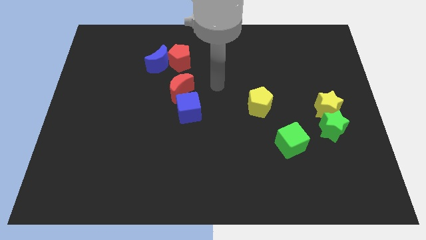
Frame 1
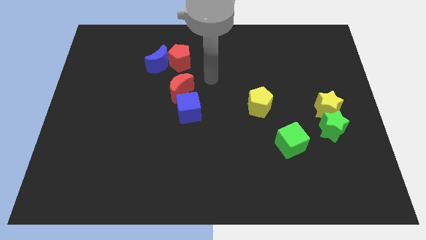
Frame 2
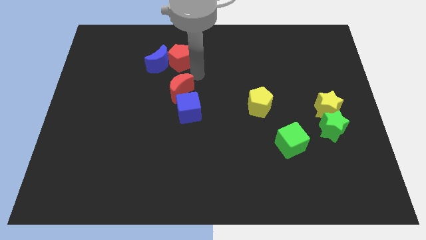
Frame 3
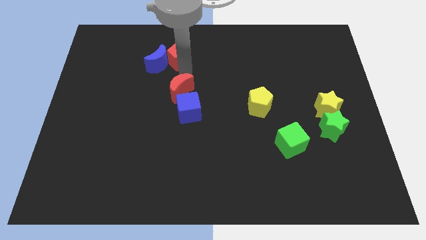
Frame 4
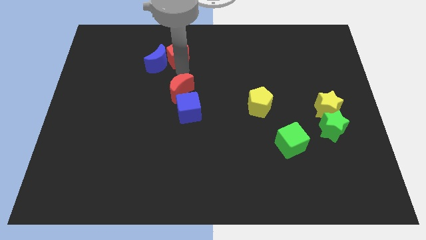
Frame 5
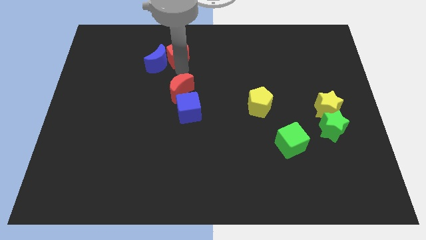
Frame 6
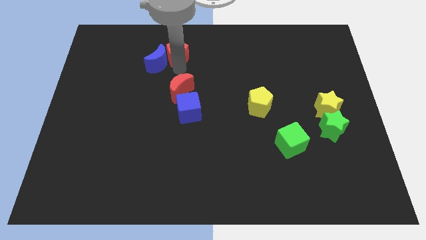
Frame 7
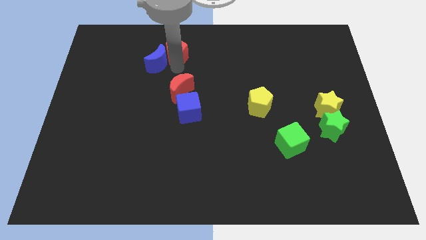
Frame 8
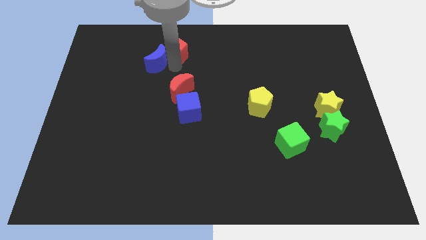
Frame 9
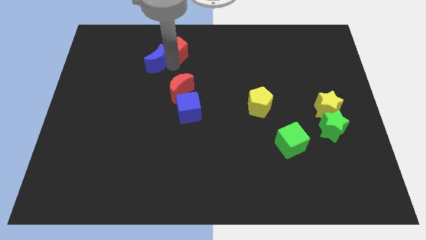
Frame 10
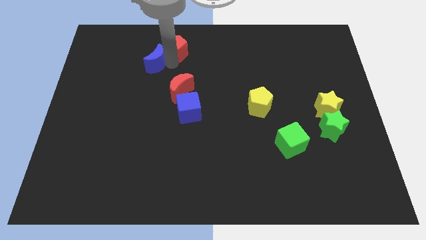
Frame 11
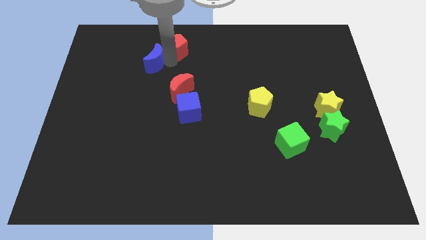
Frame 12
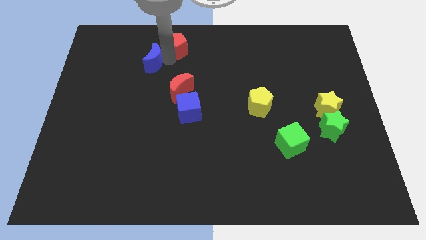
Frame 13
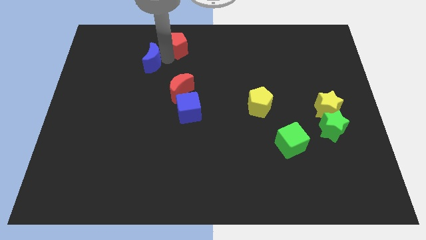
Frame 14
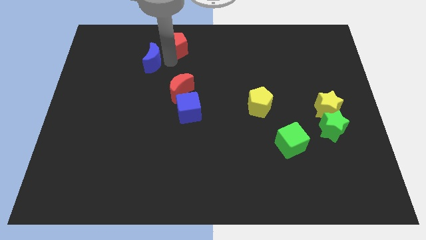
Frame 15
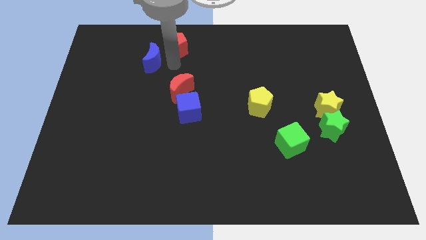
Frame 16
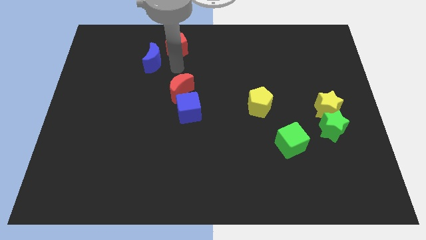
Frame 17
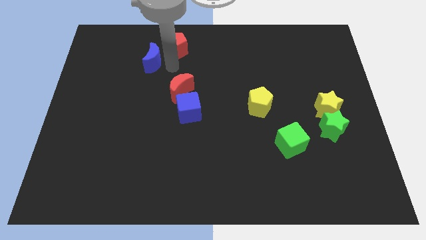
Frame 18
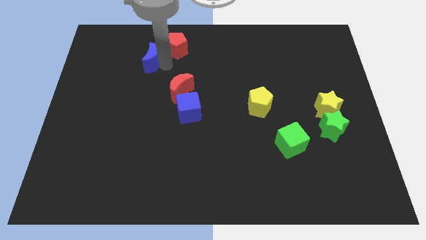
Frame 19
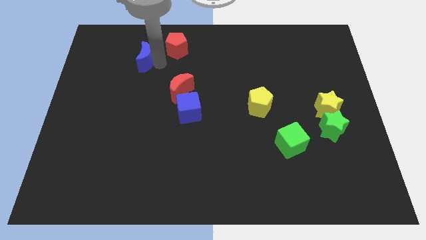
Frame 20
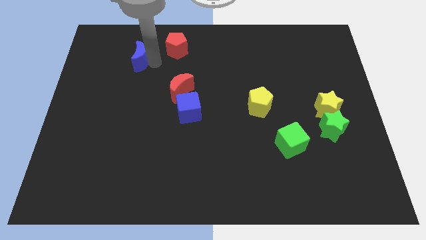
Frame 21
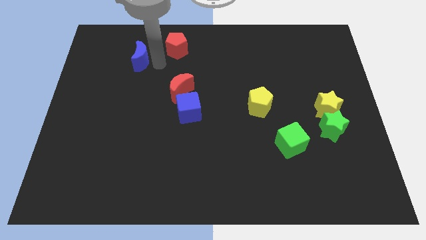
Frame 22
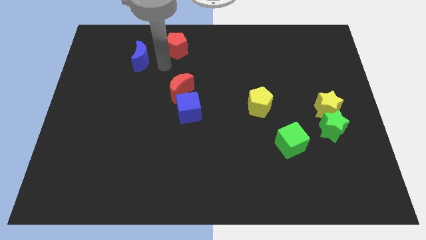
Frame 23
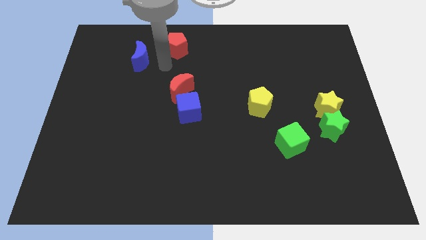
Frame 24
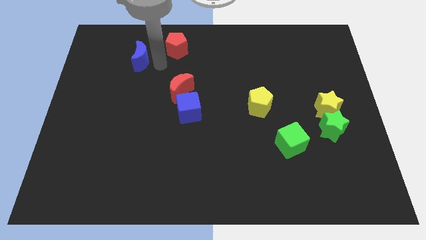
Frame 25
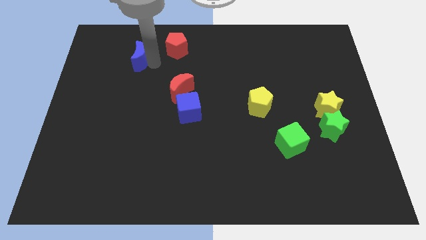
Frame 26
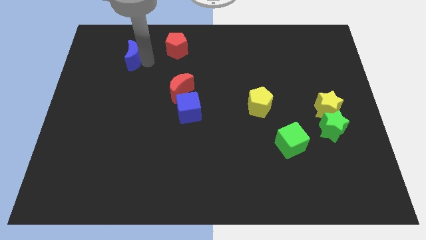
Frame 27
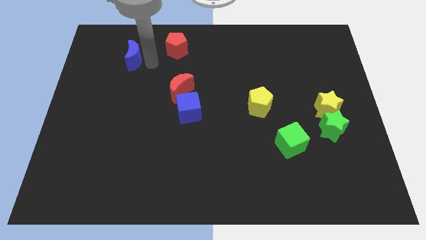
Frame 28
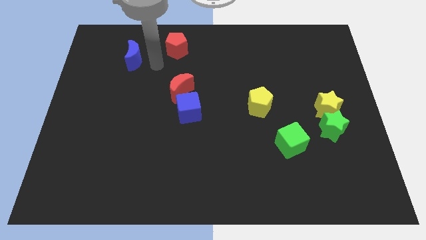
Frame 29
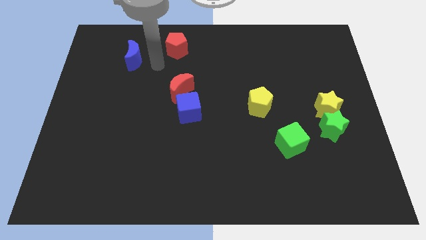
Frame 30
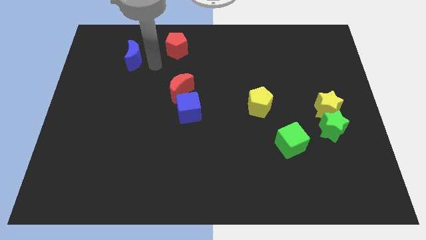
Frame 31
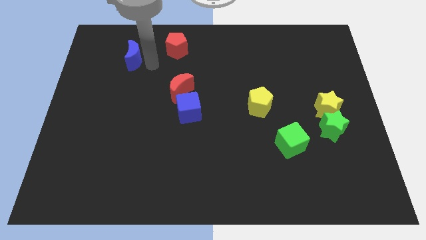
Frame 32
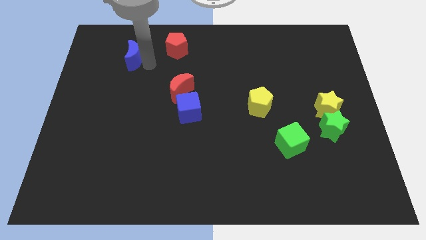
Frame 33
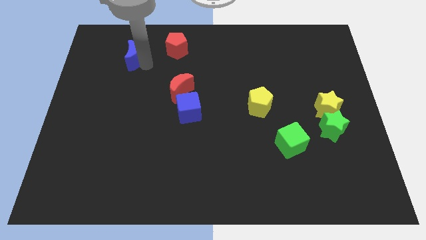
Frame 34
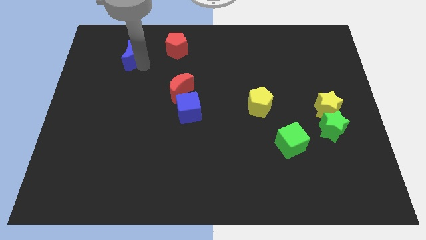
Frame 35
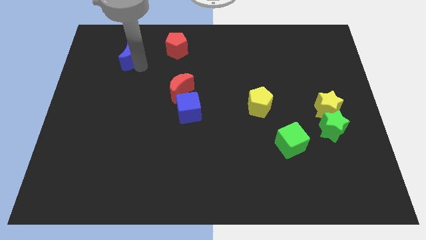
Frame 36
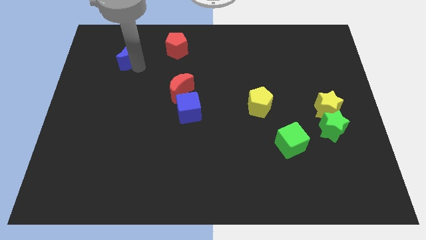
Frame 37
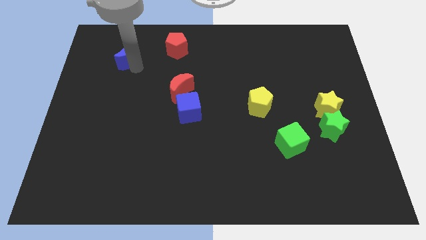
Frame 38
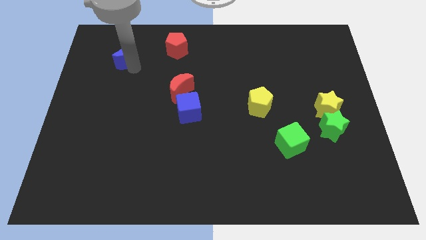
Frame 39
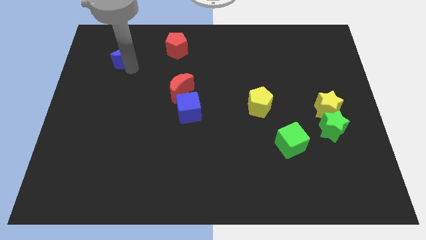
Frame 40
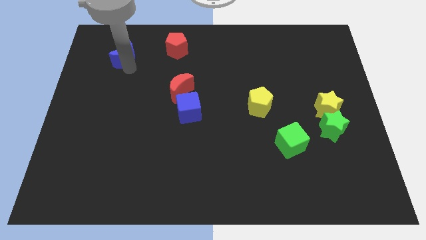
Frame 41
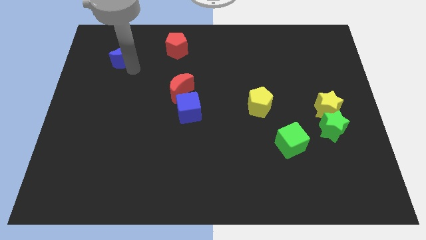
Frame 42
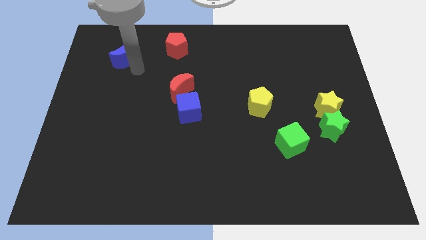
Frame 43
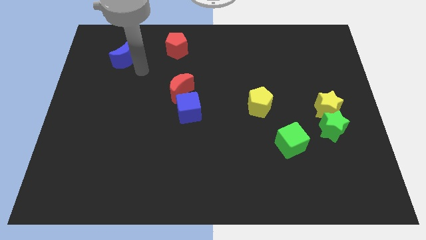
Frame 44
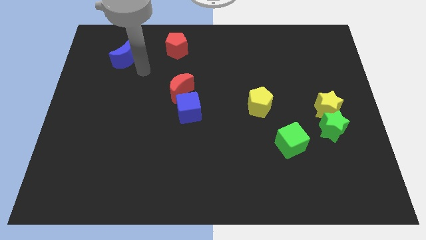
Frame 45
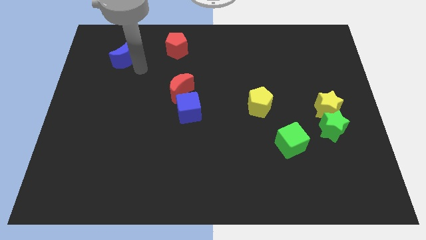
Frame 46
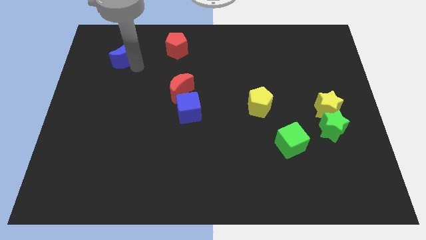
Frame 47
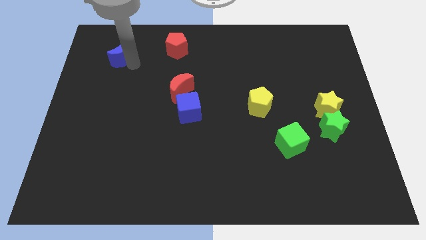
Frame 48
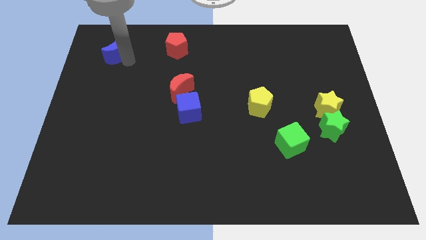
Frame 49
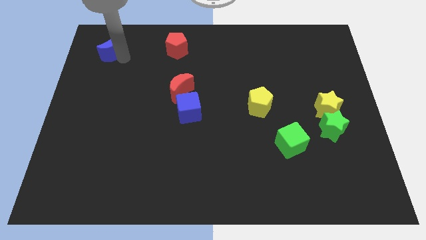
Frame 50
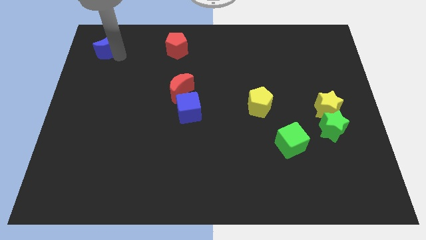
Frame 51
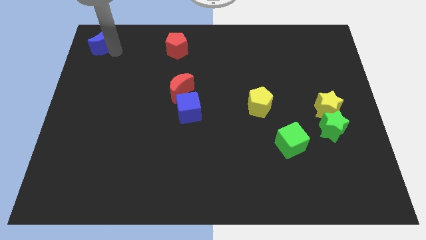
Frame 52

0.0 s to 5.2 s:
push the blue moon to the upper left corner

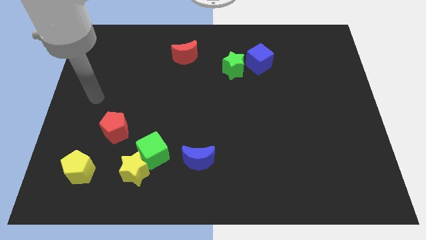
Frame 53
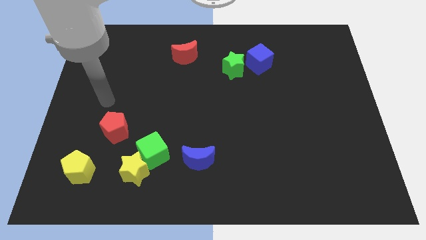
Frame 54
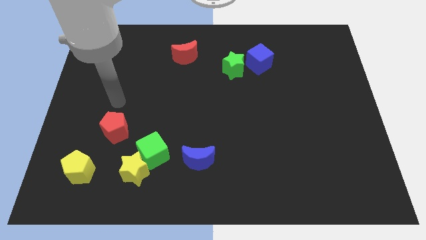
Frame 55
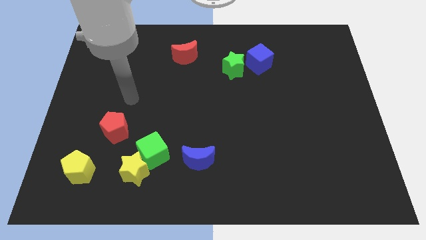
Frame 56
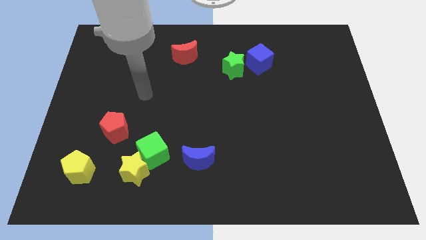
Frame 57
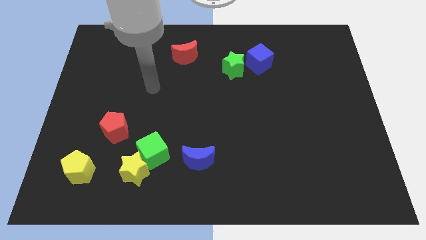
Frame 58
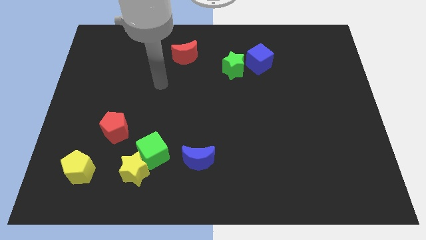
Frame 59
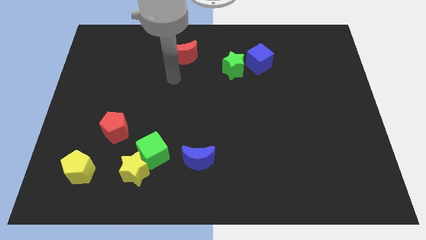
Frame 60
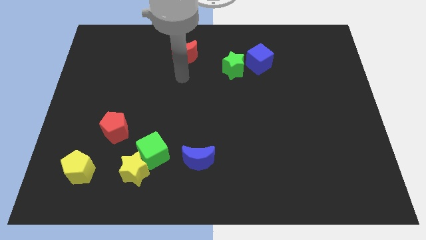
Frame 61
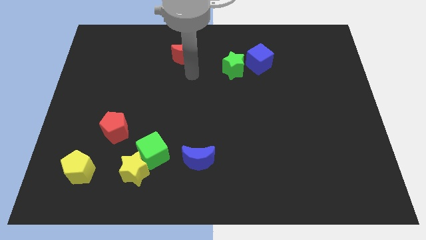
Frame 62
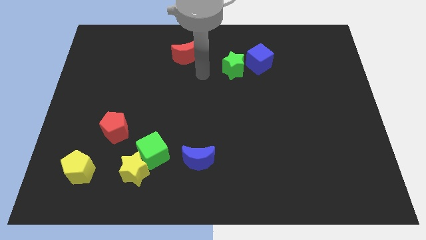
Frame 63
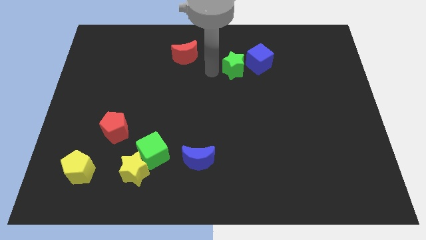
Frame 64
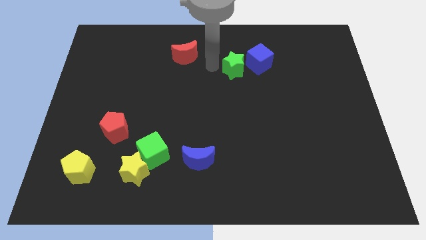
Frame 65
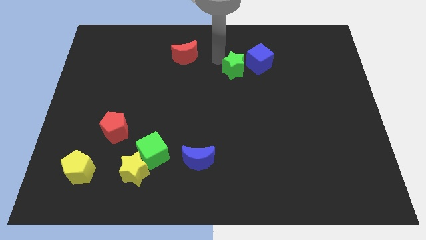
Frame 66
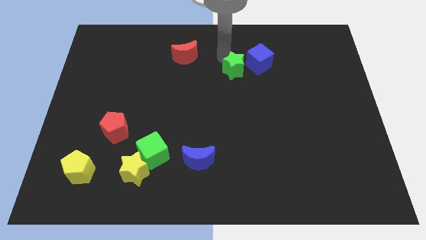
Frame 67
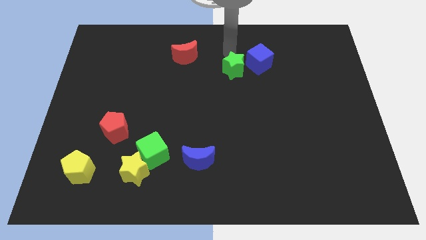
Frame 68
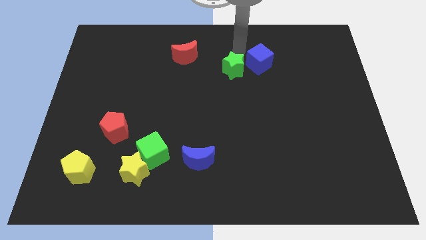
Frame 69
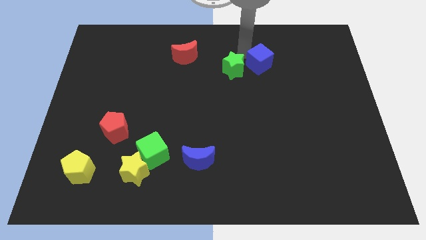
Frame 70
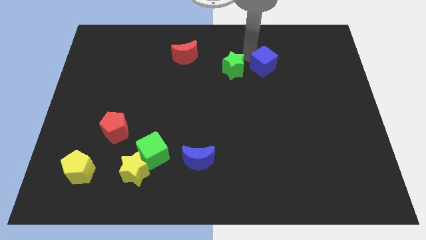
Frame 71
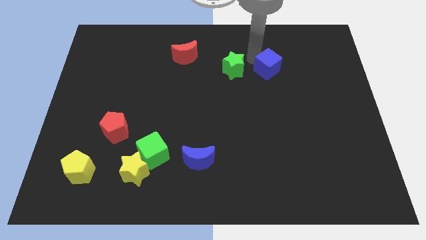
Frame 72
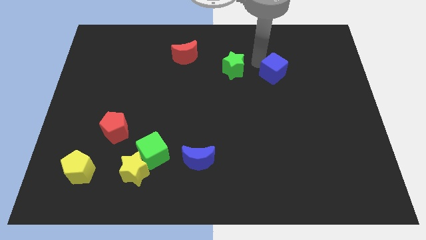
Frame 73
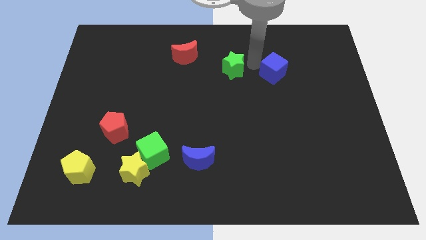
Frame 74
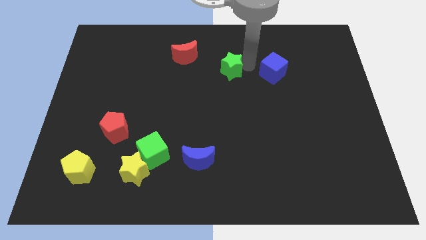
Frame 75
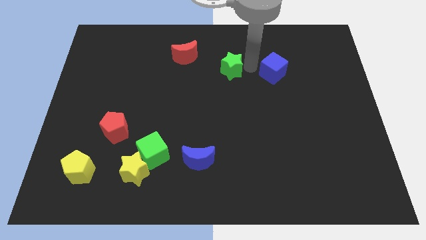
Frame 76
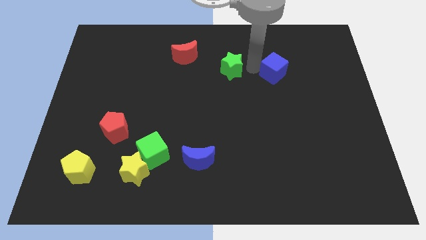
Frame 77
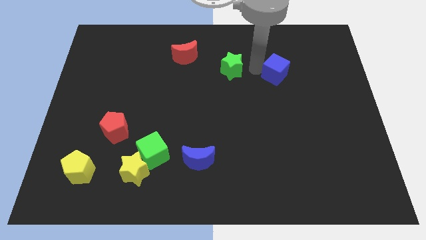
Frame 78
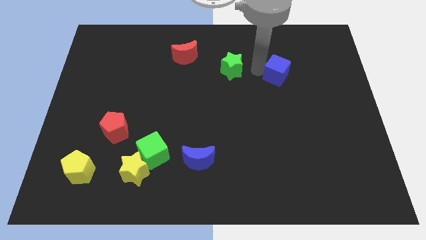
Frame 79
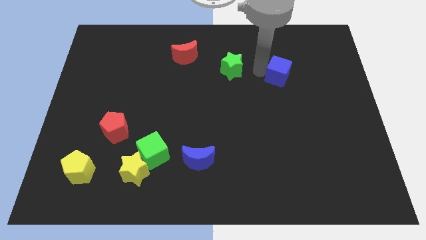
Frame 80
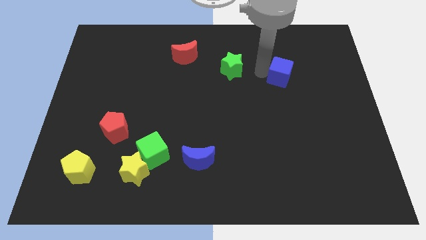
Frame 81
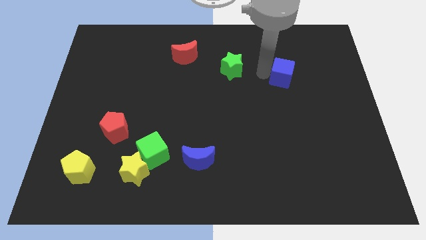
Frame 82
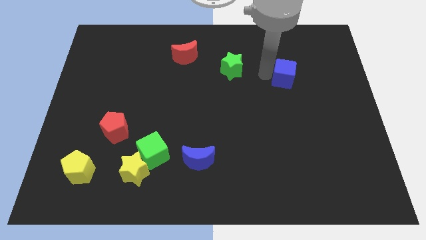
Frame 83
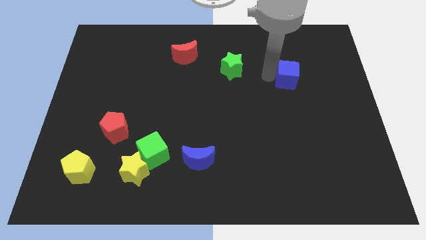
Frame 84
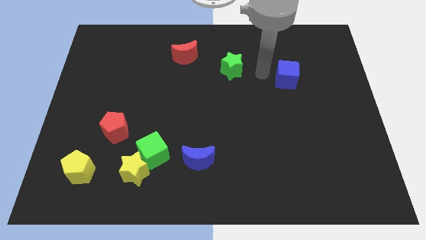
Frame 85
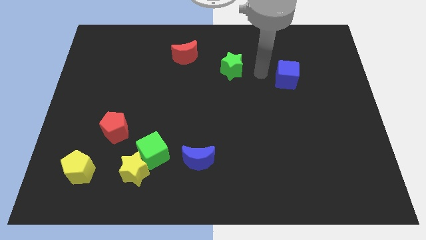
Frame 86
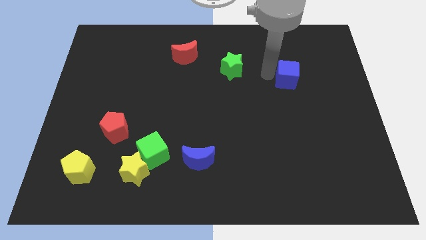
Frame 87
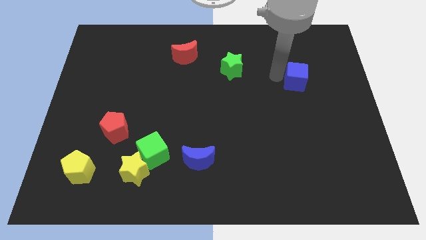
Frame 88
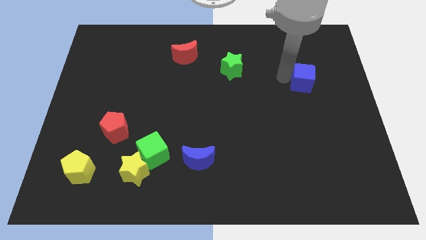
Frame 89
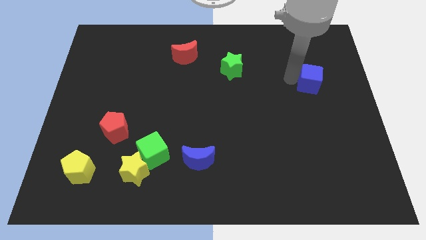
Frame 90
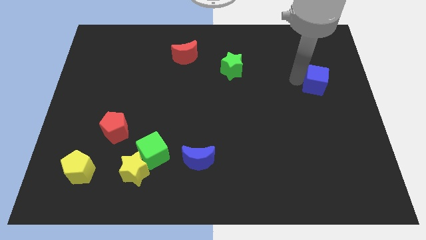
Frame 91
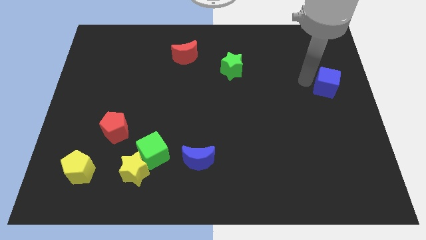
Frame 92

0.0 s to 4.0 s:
put the blue cube to the right side of the board
